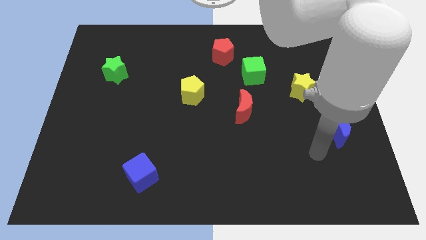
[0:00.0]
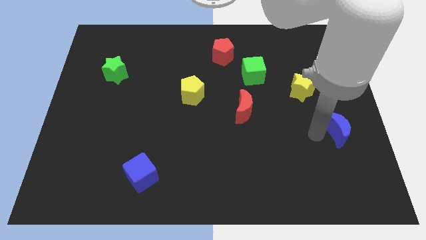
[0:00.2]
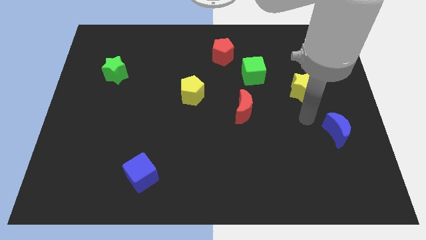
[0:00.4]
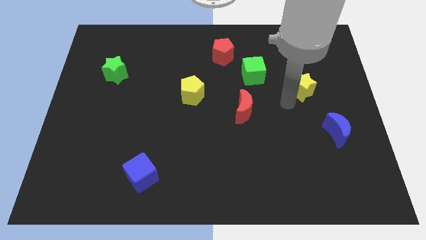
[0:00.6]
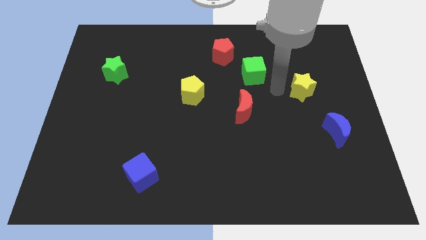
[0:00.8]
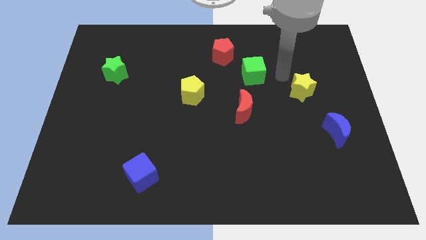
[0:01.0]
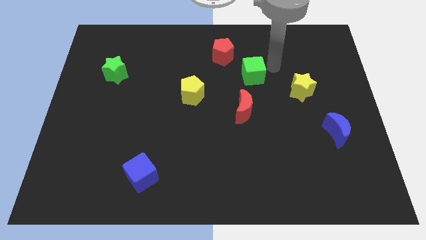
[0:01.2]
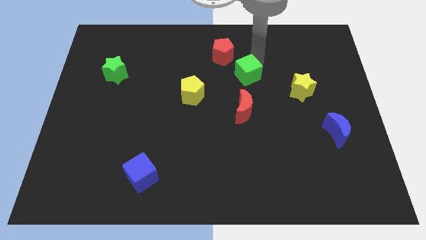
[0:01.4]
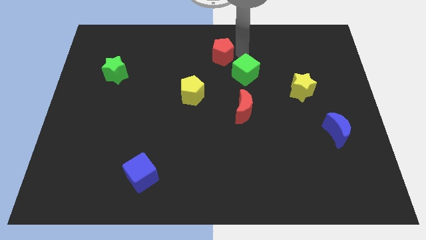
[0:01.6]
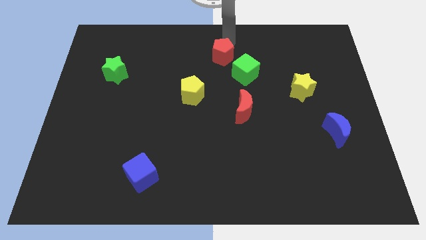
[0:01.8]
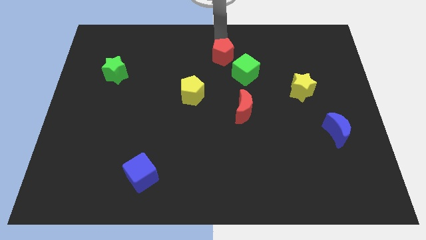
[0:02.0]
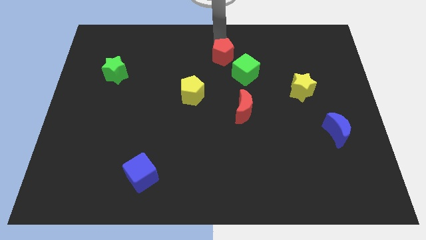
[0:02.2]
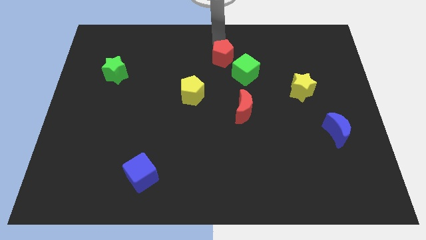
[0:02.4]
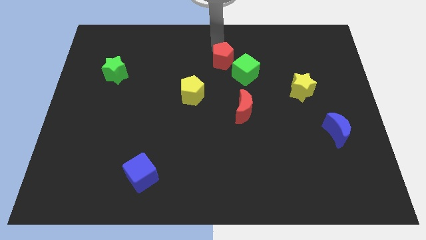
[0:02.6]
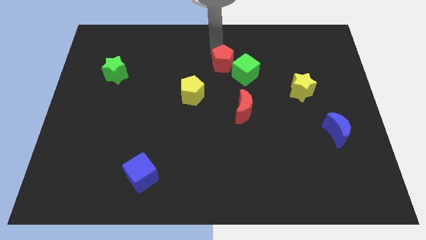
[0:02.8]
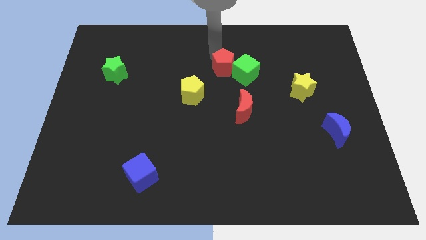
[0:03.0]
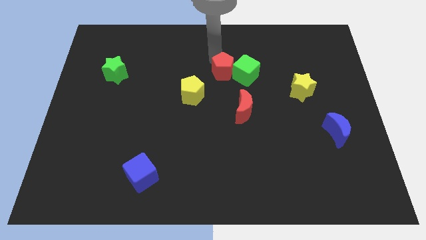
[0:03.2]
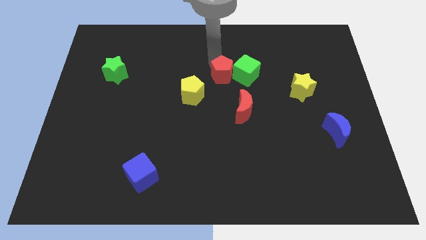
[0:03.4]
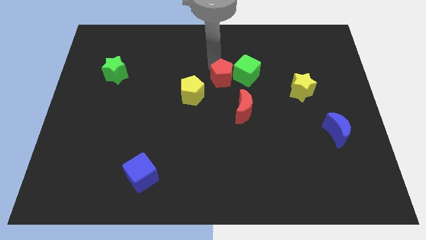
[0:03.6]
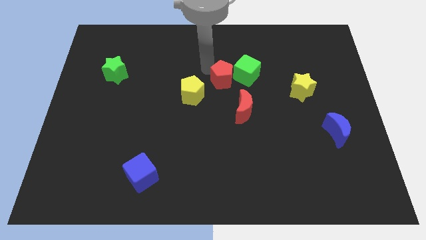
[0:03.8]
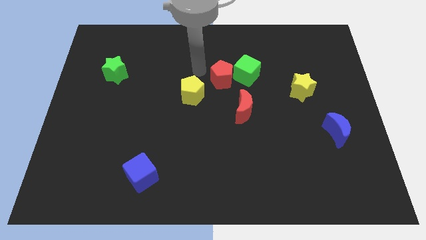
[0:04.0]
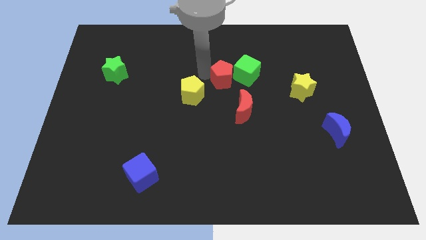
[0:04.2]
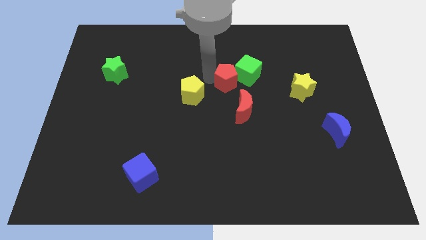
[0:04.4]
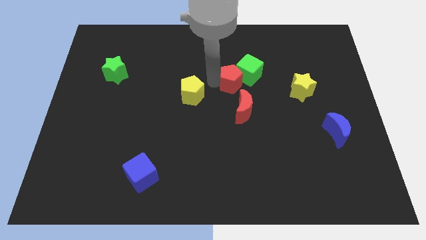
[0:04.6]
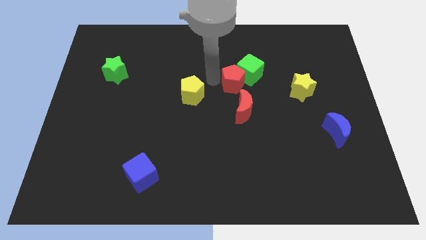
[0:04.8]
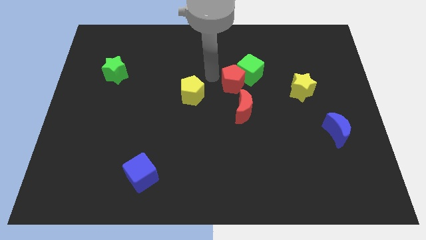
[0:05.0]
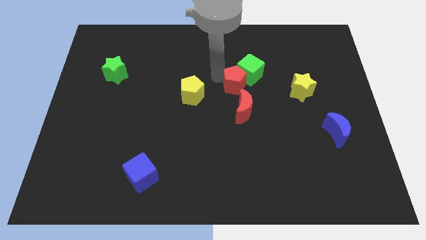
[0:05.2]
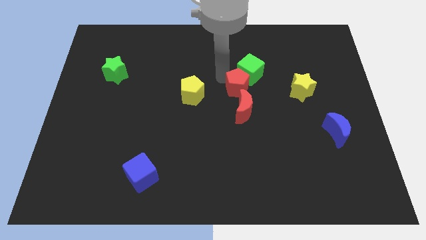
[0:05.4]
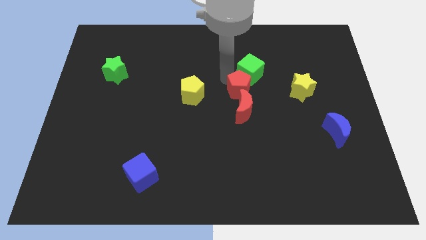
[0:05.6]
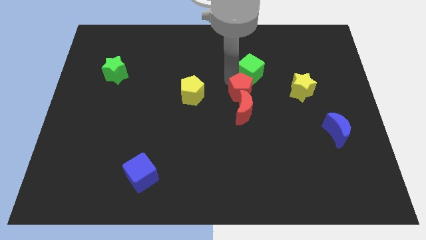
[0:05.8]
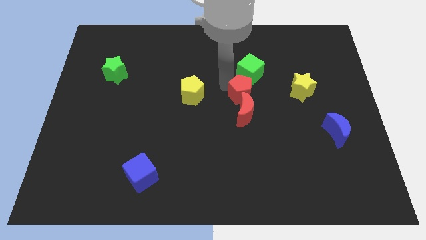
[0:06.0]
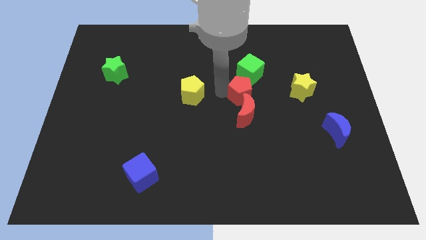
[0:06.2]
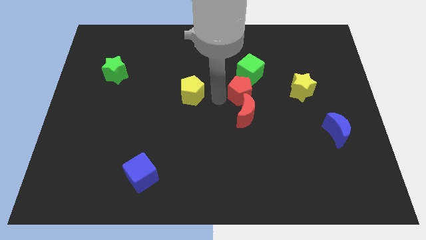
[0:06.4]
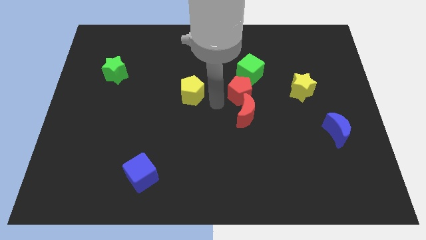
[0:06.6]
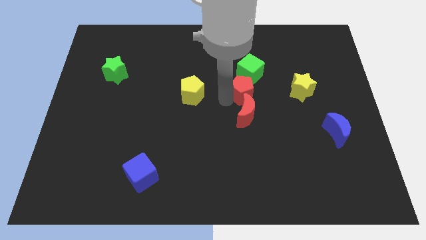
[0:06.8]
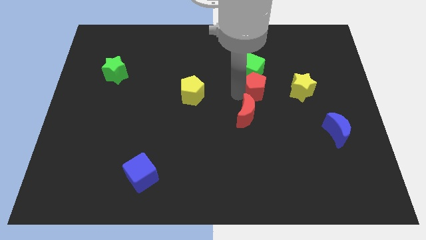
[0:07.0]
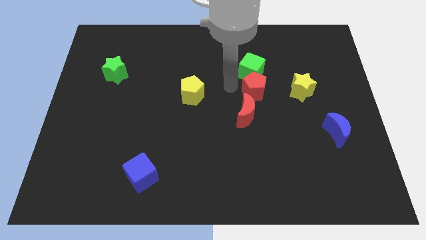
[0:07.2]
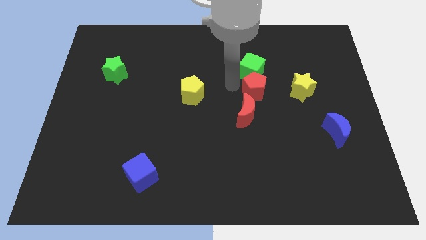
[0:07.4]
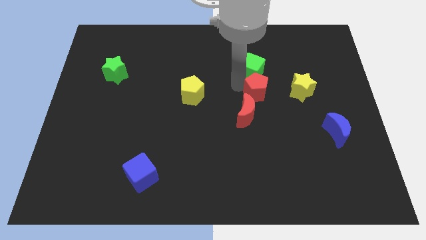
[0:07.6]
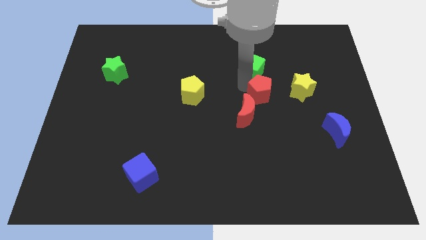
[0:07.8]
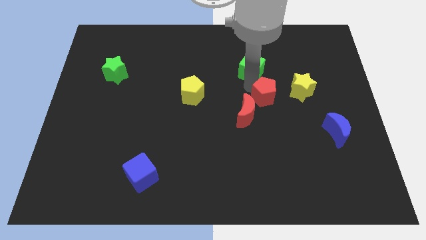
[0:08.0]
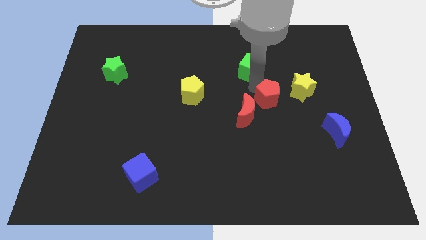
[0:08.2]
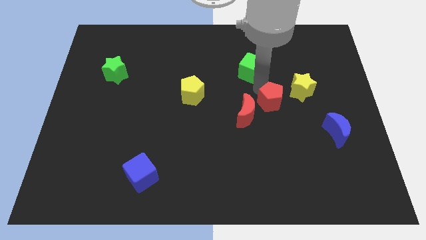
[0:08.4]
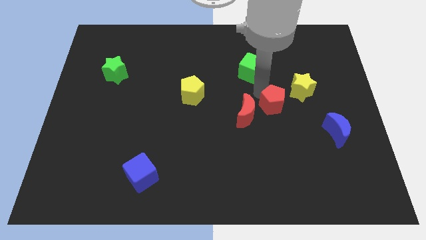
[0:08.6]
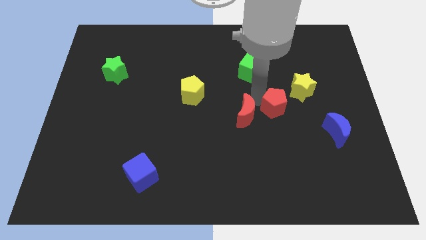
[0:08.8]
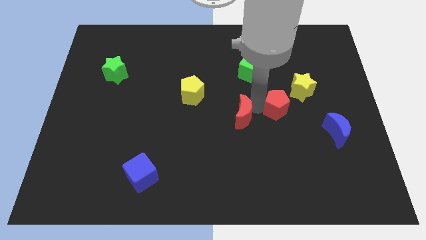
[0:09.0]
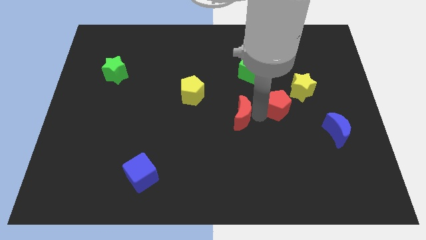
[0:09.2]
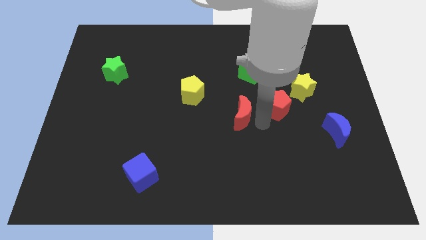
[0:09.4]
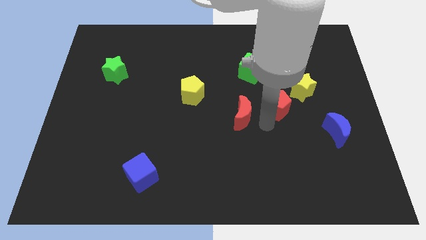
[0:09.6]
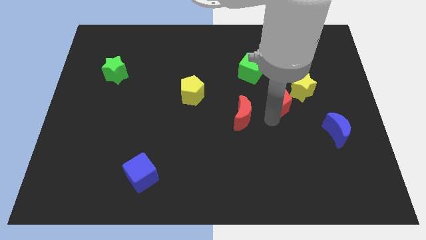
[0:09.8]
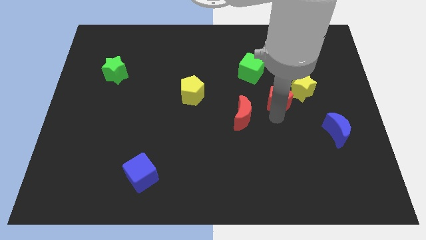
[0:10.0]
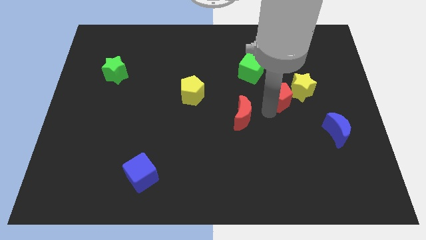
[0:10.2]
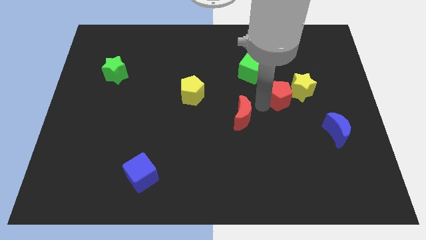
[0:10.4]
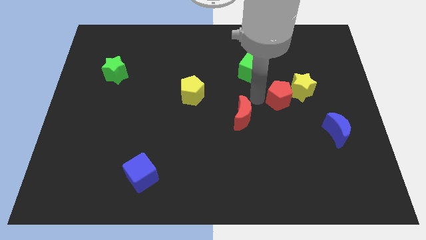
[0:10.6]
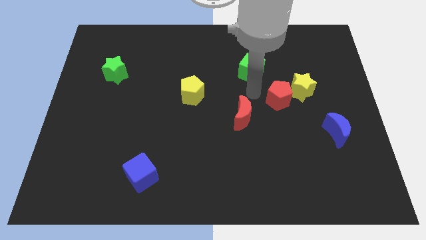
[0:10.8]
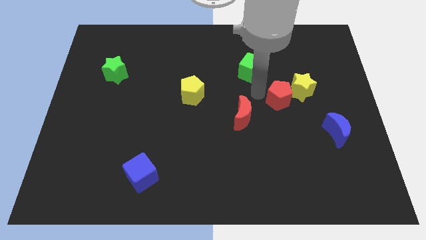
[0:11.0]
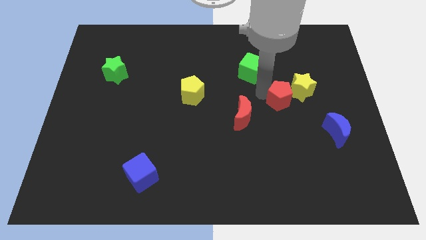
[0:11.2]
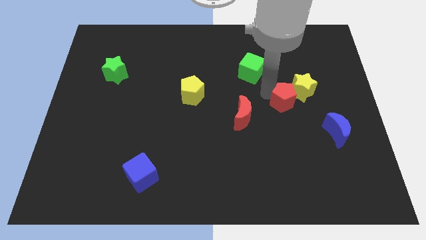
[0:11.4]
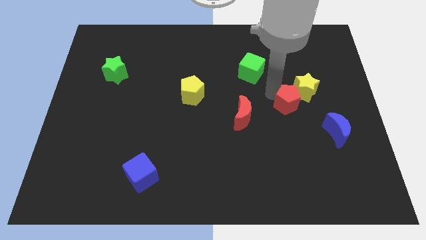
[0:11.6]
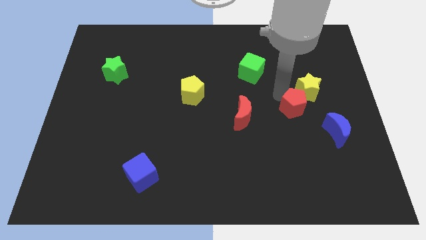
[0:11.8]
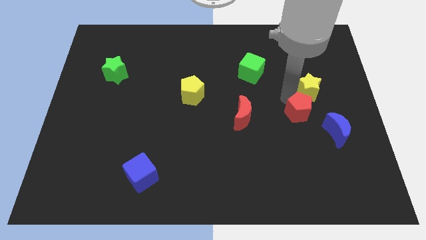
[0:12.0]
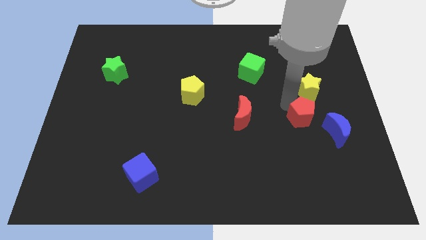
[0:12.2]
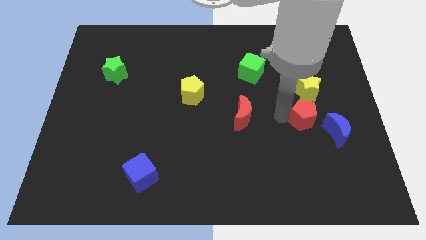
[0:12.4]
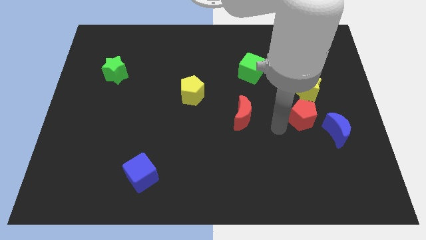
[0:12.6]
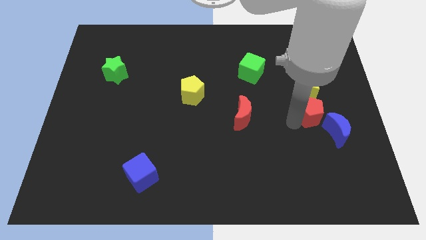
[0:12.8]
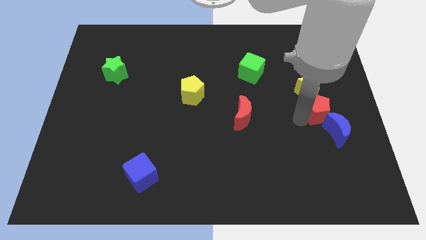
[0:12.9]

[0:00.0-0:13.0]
put the red pentagon to the bottom right side of the yellow star

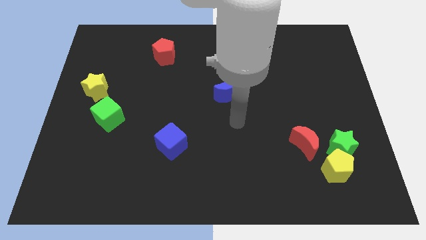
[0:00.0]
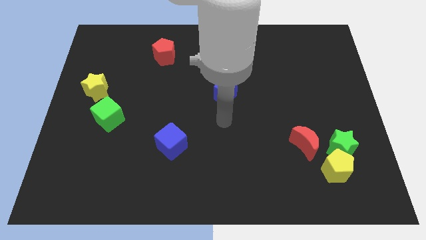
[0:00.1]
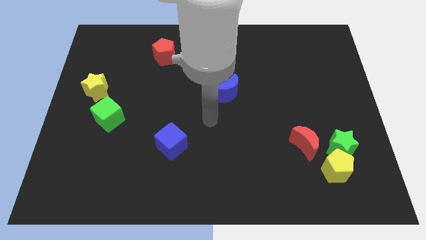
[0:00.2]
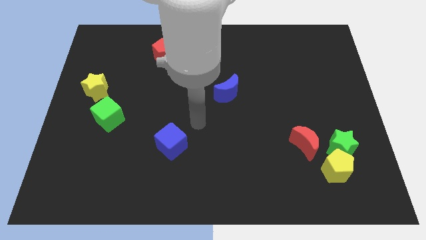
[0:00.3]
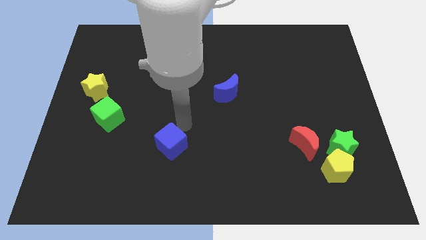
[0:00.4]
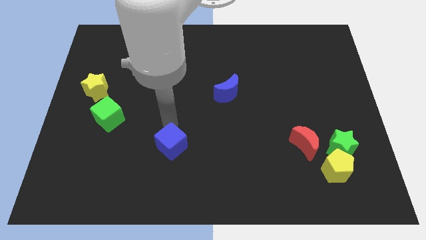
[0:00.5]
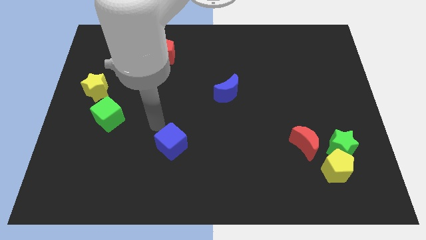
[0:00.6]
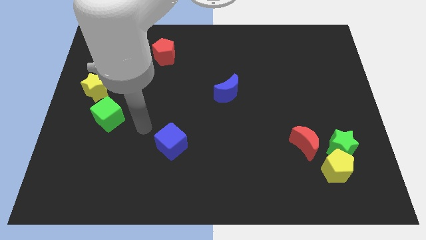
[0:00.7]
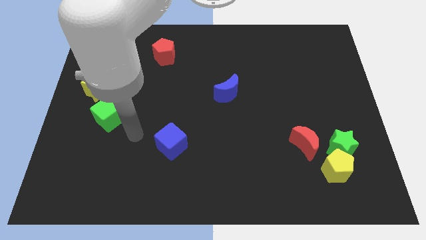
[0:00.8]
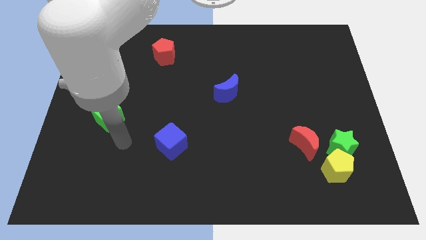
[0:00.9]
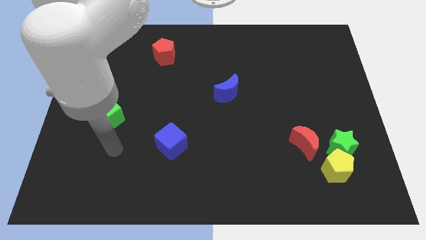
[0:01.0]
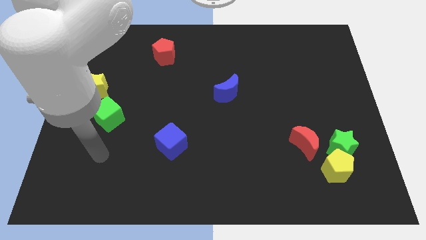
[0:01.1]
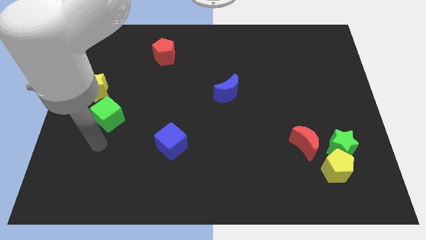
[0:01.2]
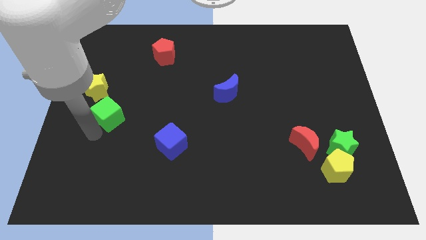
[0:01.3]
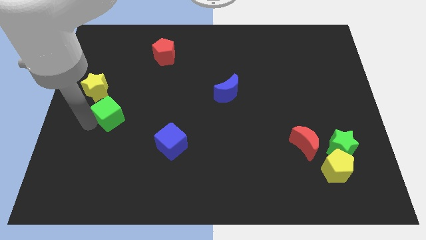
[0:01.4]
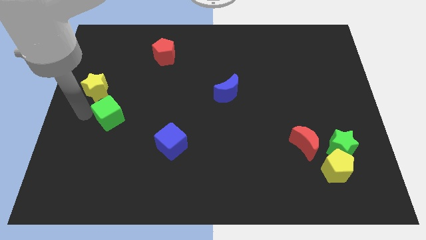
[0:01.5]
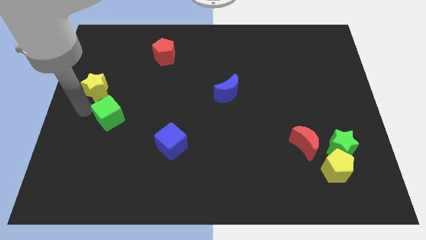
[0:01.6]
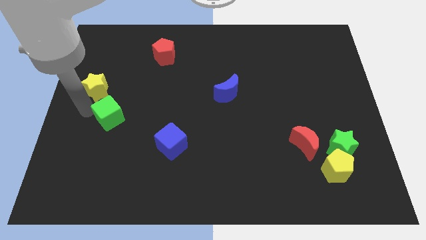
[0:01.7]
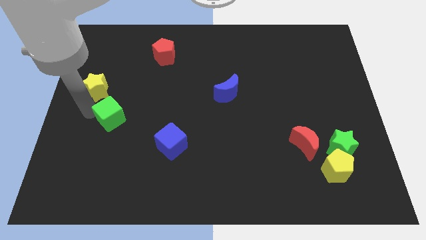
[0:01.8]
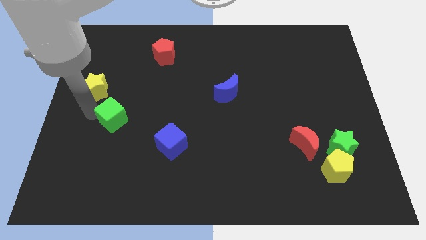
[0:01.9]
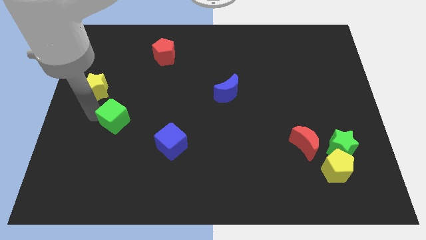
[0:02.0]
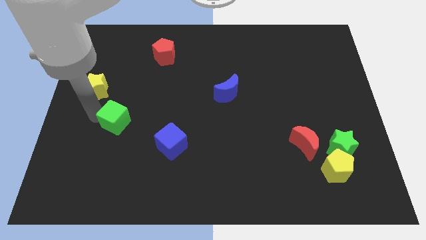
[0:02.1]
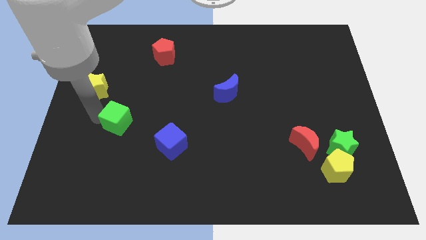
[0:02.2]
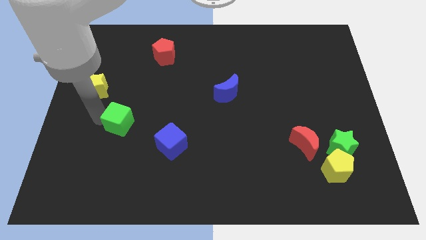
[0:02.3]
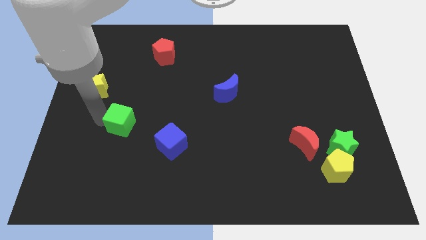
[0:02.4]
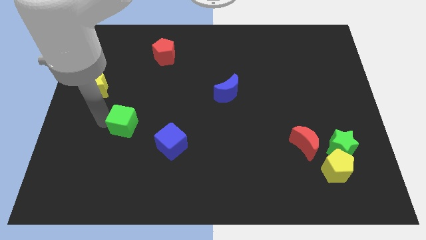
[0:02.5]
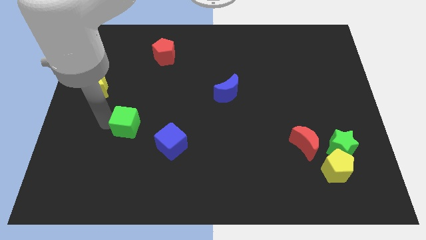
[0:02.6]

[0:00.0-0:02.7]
move the green cube to the top left of the blue cube
